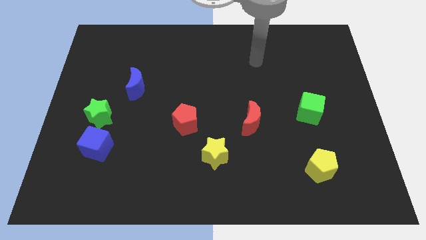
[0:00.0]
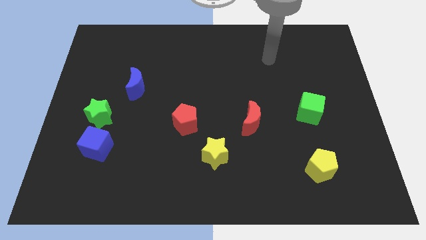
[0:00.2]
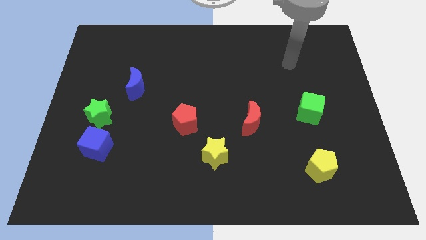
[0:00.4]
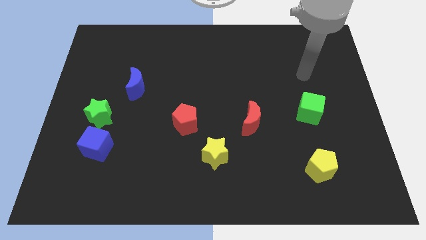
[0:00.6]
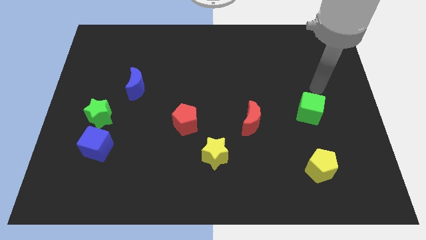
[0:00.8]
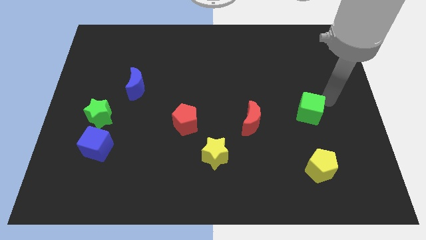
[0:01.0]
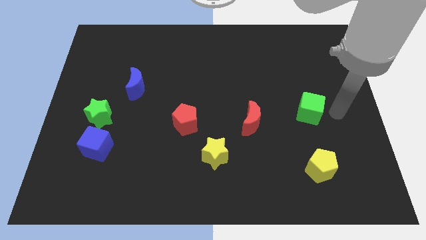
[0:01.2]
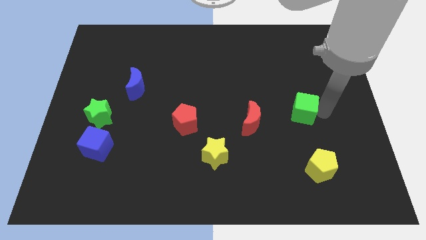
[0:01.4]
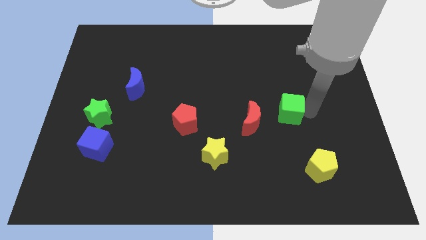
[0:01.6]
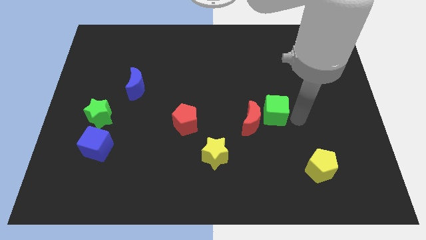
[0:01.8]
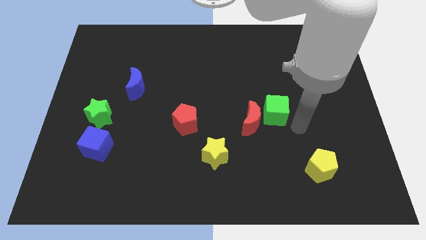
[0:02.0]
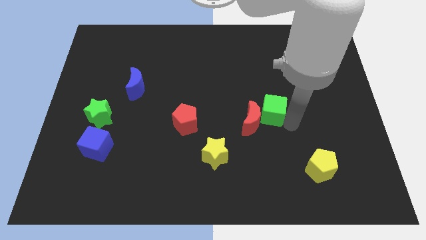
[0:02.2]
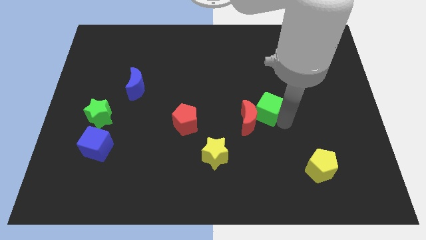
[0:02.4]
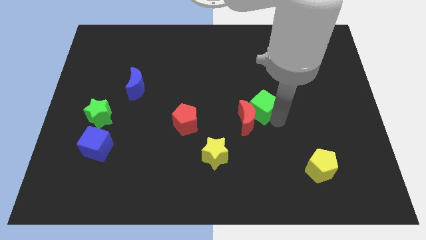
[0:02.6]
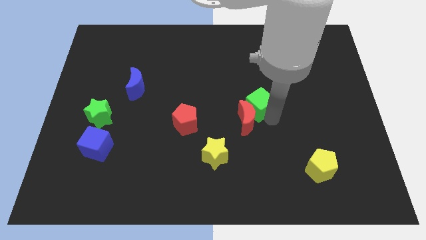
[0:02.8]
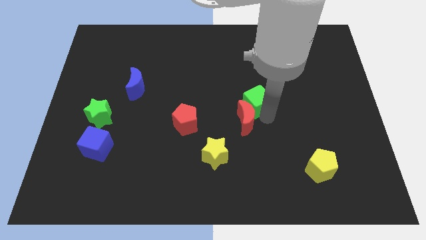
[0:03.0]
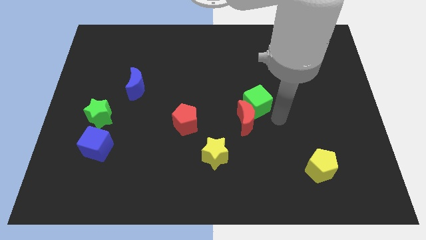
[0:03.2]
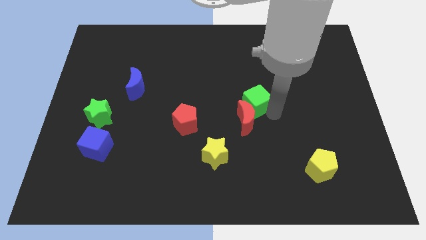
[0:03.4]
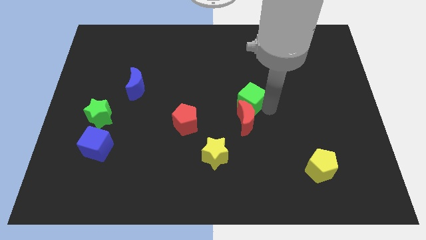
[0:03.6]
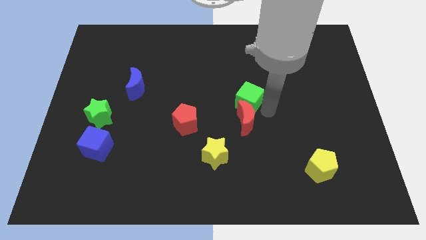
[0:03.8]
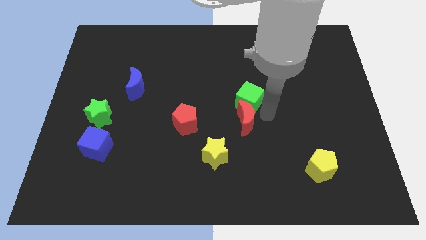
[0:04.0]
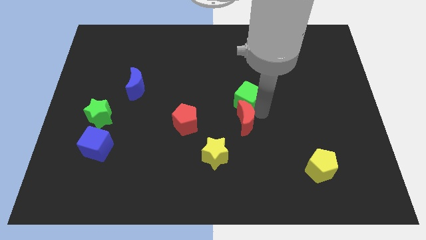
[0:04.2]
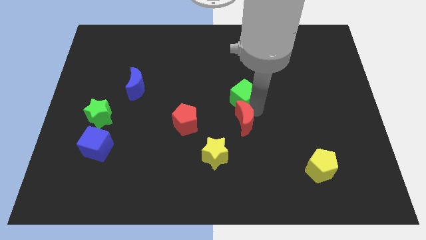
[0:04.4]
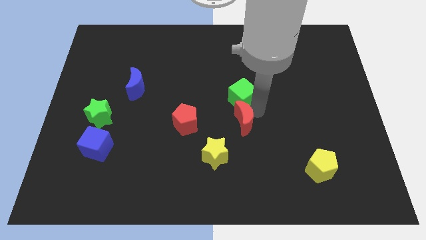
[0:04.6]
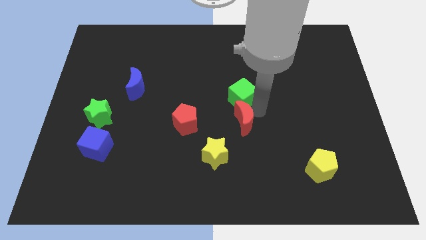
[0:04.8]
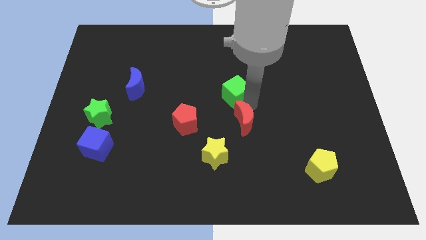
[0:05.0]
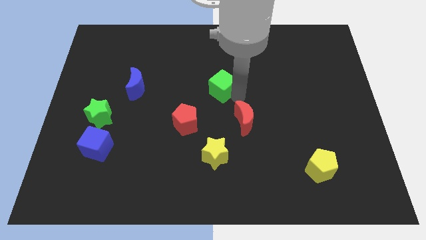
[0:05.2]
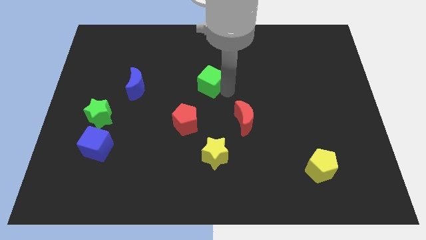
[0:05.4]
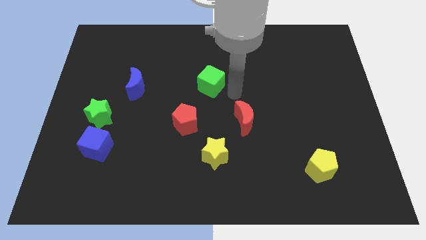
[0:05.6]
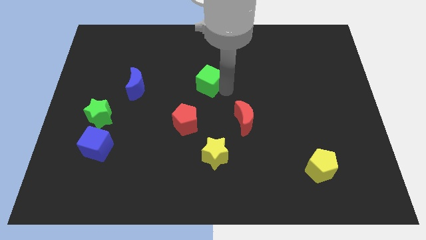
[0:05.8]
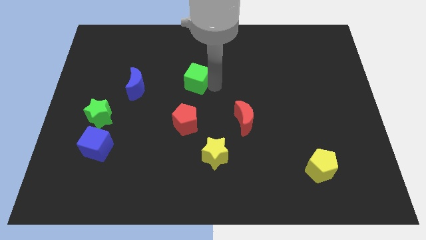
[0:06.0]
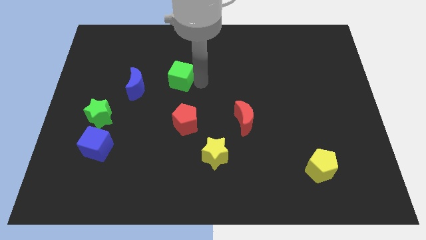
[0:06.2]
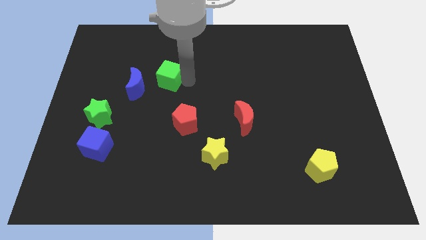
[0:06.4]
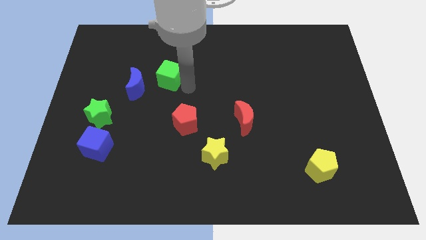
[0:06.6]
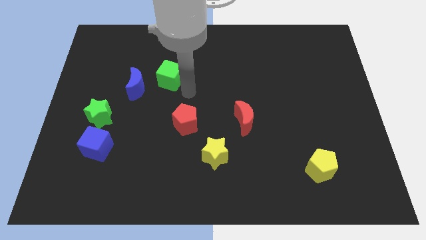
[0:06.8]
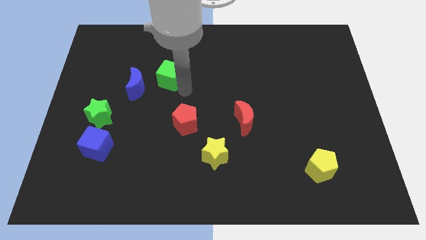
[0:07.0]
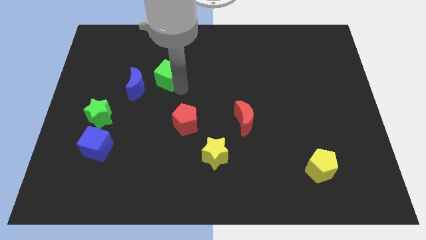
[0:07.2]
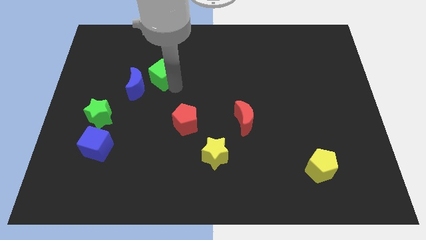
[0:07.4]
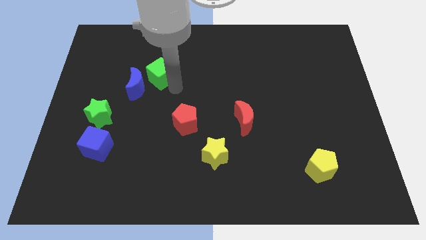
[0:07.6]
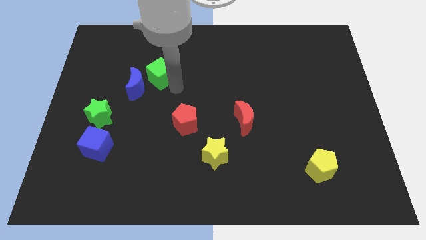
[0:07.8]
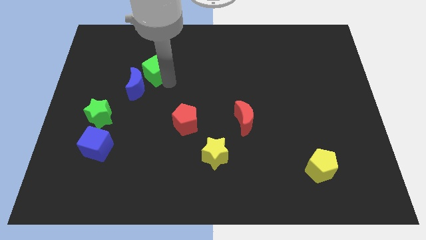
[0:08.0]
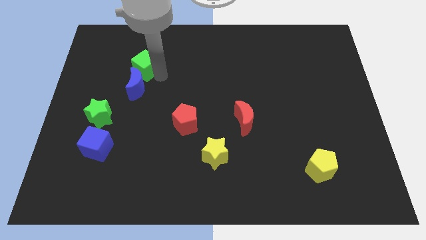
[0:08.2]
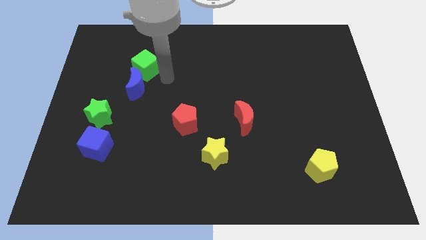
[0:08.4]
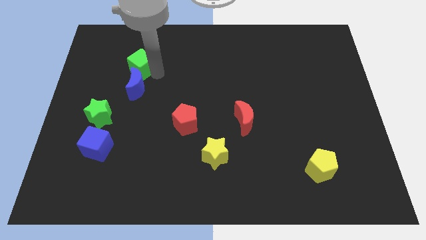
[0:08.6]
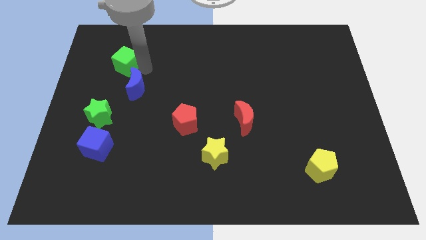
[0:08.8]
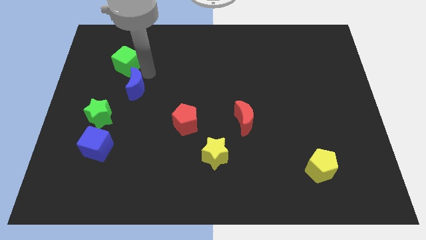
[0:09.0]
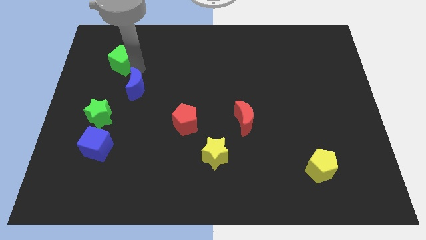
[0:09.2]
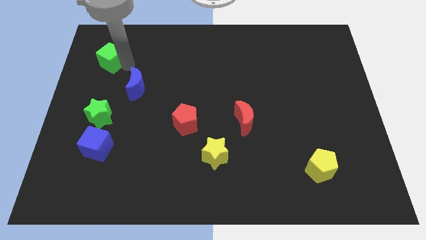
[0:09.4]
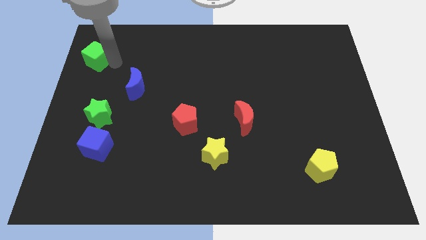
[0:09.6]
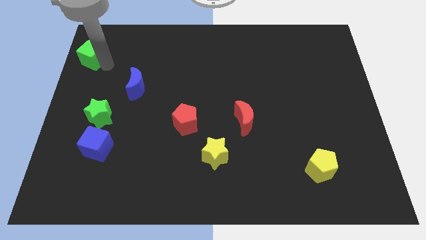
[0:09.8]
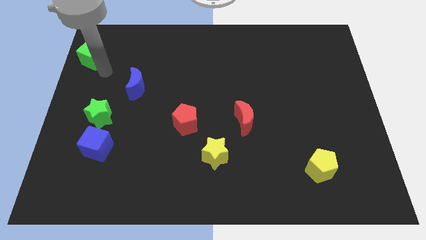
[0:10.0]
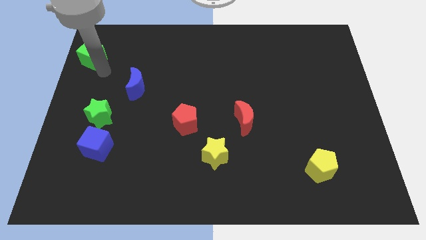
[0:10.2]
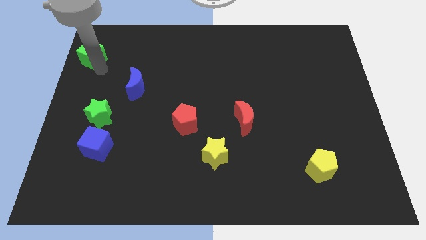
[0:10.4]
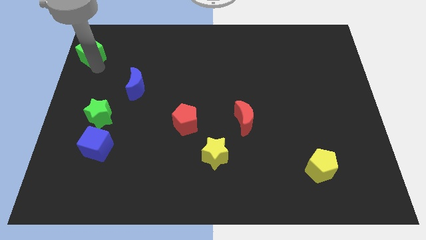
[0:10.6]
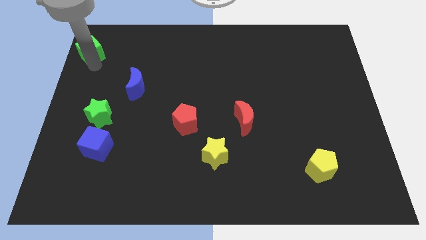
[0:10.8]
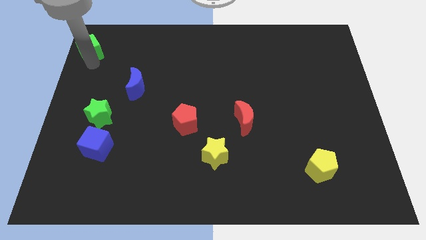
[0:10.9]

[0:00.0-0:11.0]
move the green cube to the upper left corner

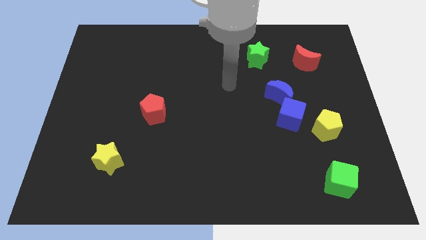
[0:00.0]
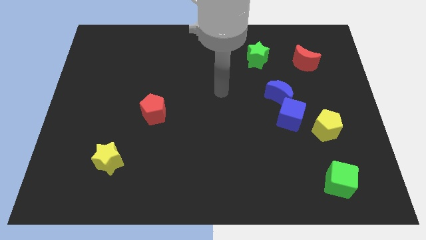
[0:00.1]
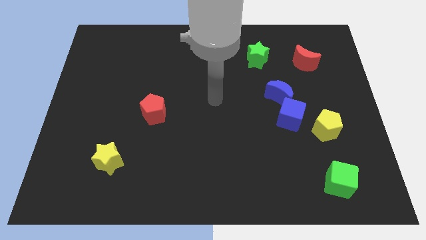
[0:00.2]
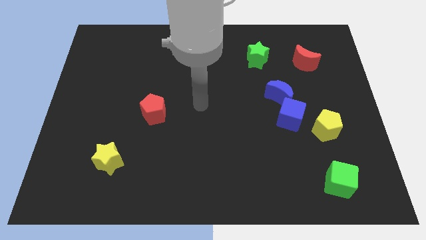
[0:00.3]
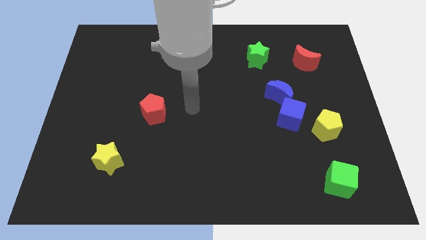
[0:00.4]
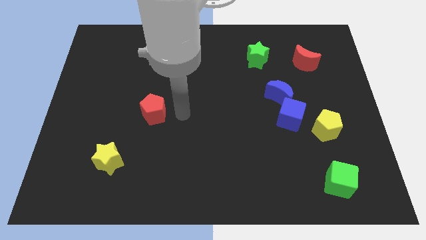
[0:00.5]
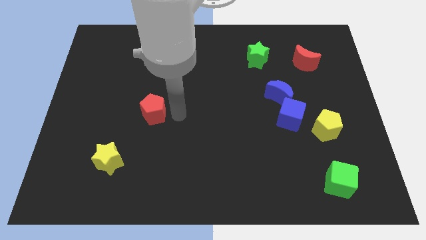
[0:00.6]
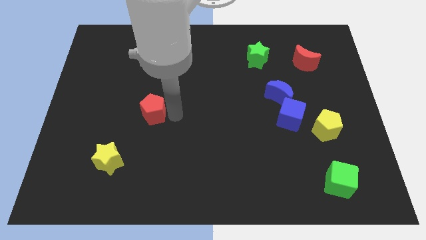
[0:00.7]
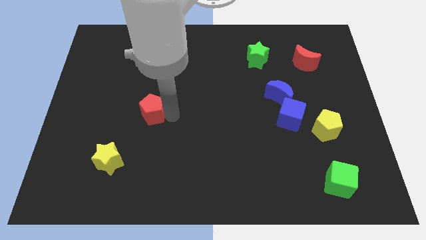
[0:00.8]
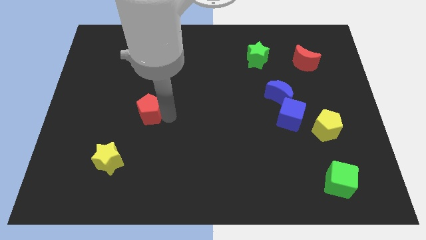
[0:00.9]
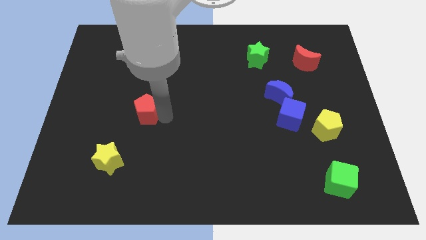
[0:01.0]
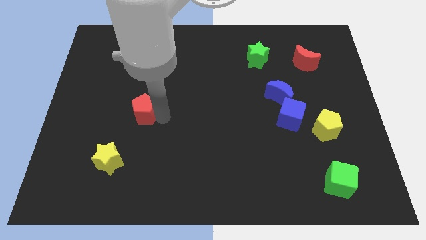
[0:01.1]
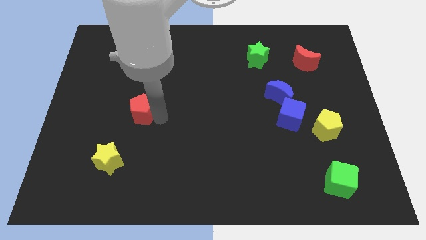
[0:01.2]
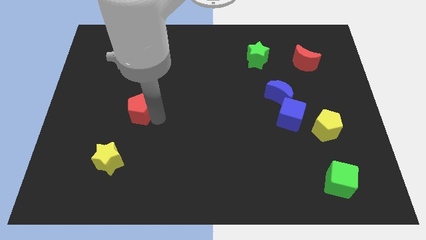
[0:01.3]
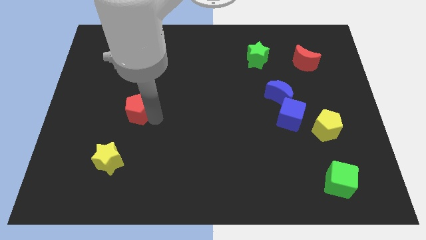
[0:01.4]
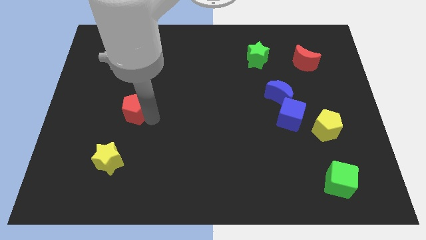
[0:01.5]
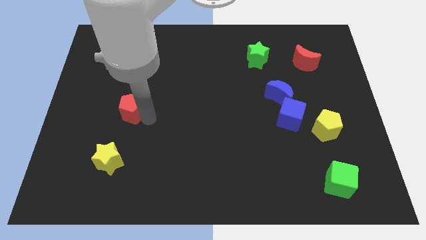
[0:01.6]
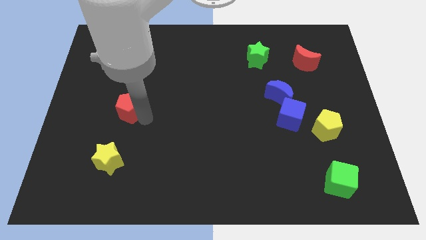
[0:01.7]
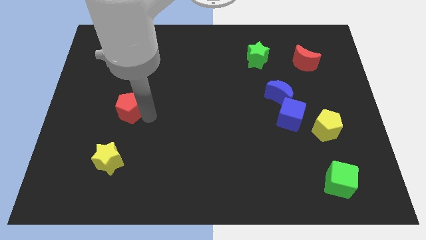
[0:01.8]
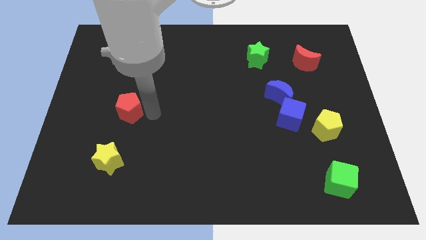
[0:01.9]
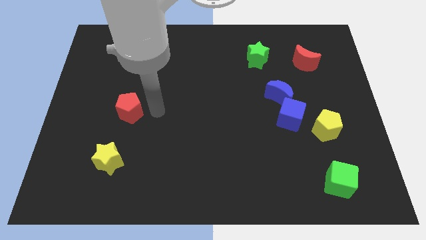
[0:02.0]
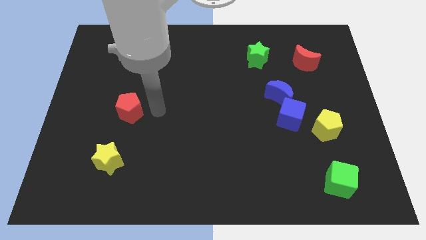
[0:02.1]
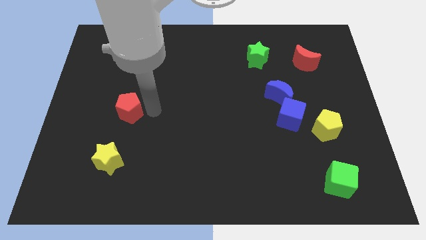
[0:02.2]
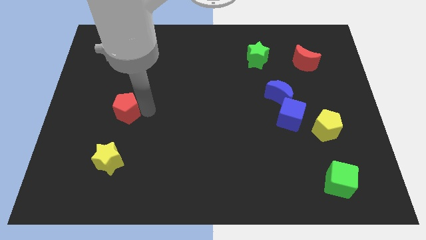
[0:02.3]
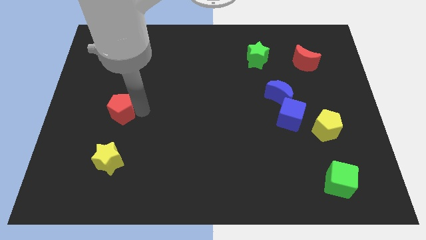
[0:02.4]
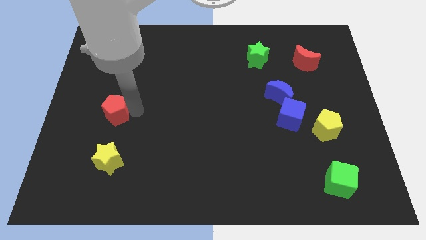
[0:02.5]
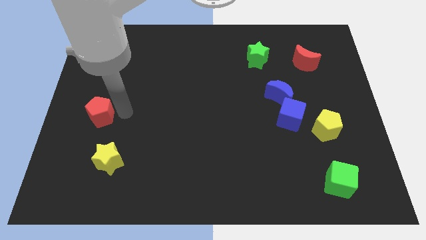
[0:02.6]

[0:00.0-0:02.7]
put the red pentagon to the center left
